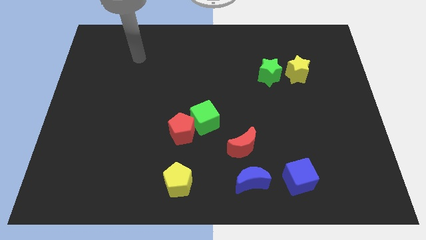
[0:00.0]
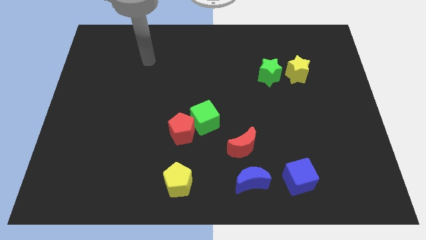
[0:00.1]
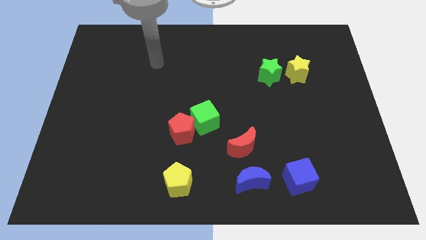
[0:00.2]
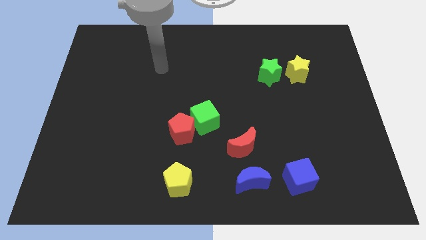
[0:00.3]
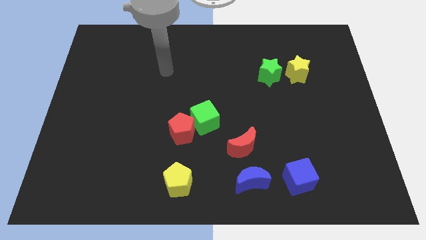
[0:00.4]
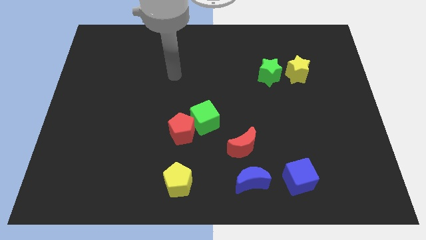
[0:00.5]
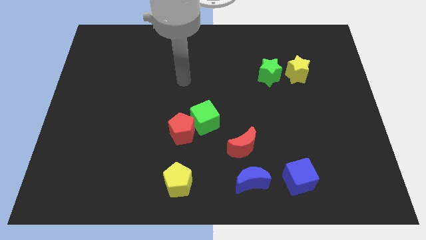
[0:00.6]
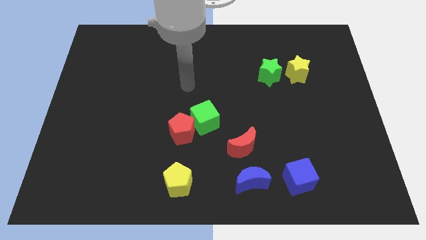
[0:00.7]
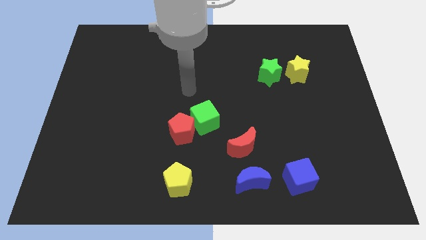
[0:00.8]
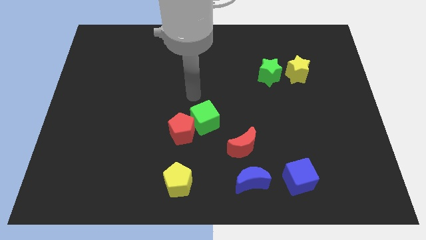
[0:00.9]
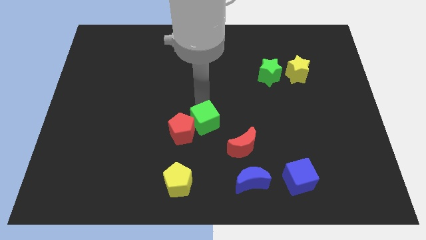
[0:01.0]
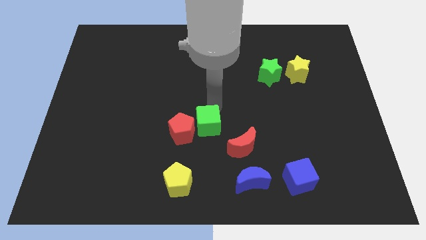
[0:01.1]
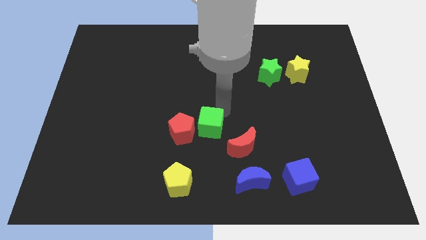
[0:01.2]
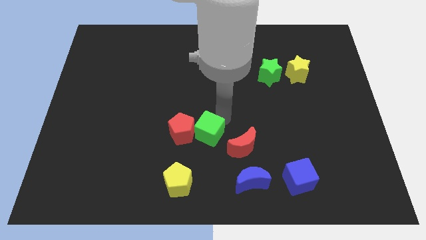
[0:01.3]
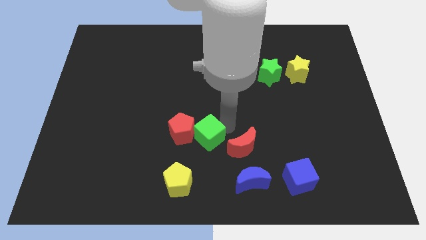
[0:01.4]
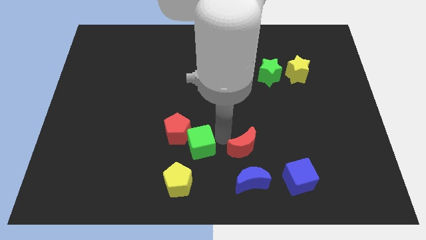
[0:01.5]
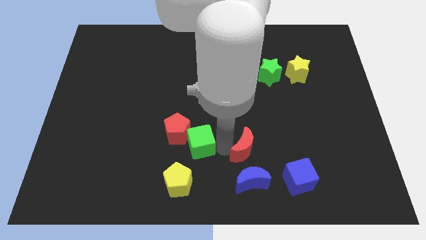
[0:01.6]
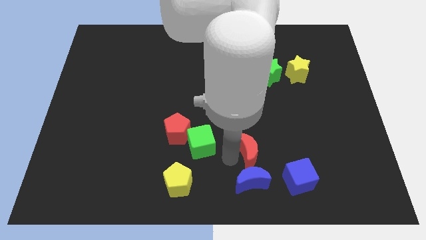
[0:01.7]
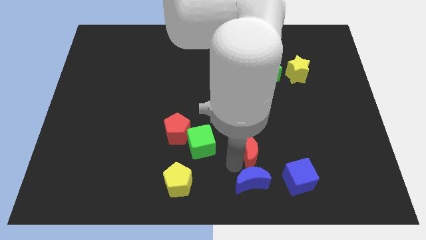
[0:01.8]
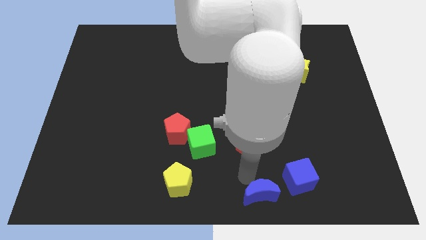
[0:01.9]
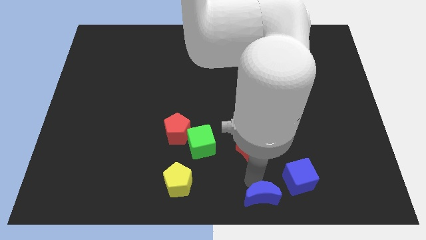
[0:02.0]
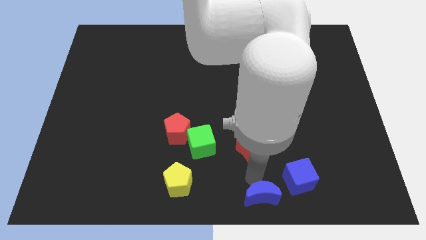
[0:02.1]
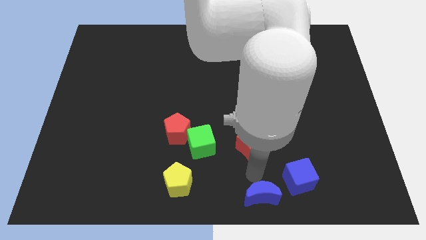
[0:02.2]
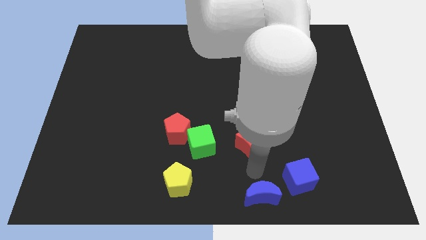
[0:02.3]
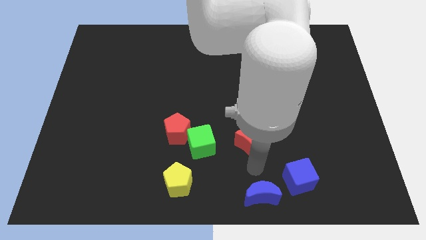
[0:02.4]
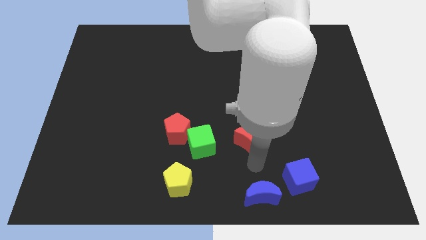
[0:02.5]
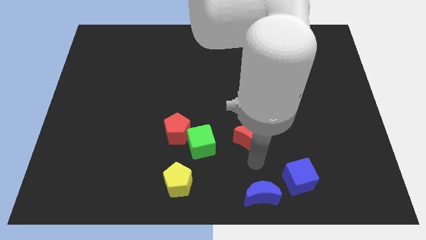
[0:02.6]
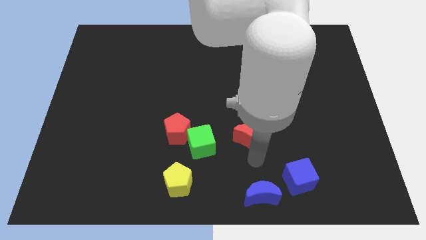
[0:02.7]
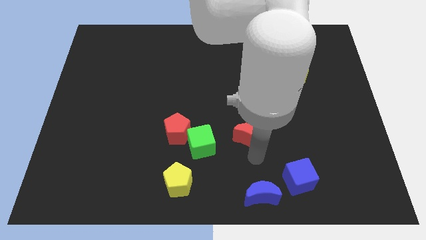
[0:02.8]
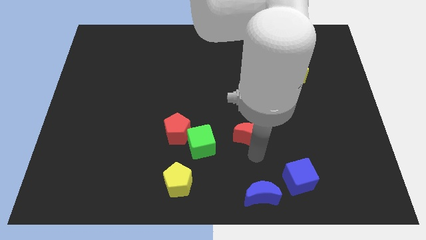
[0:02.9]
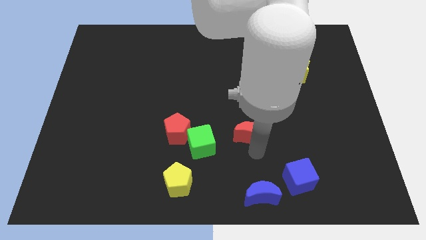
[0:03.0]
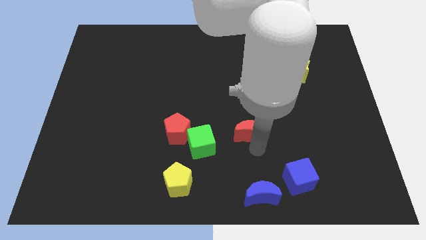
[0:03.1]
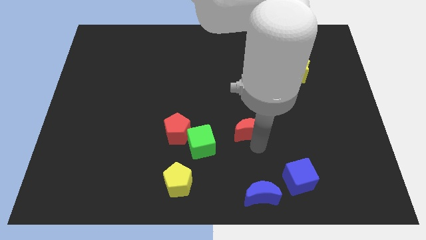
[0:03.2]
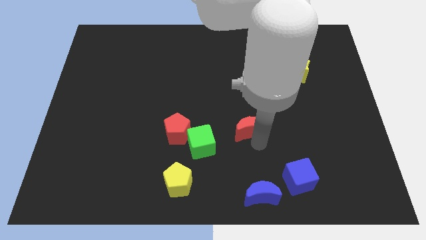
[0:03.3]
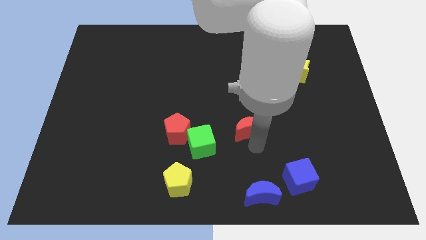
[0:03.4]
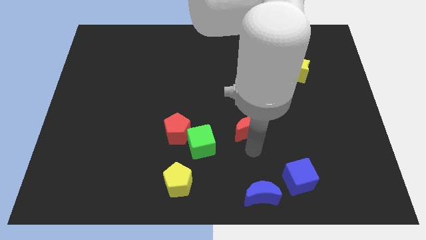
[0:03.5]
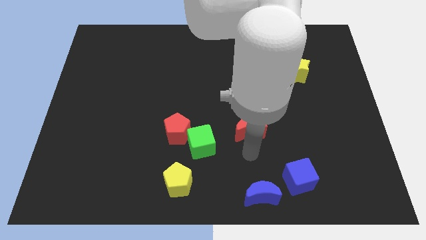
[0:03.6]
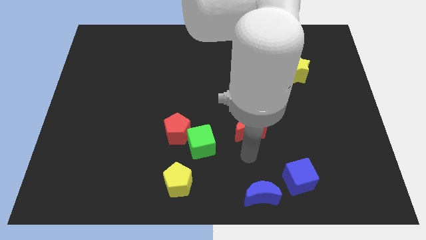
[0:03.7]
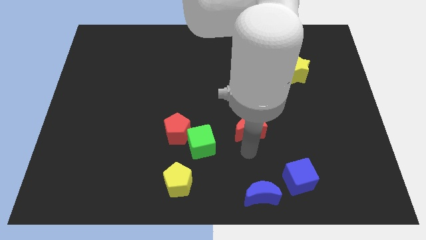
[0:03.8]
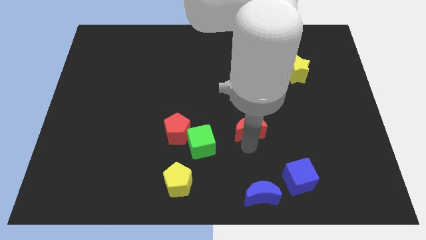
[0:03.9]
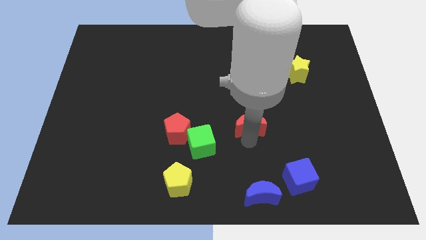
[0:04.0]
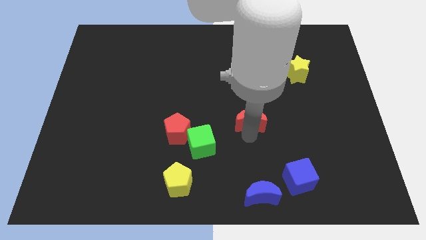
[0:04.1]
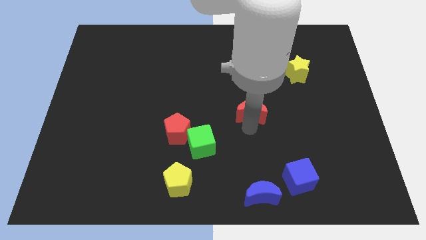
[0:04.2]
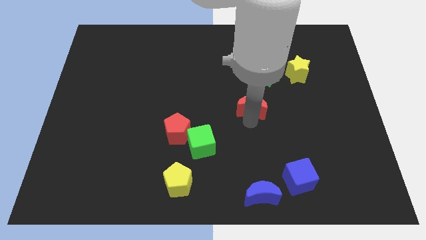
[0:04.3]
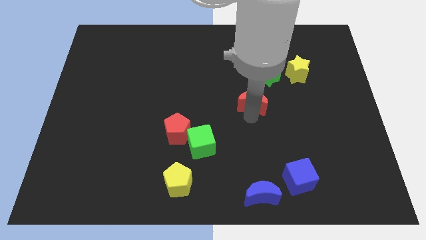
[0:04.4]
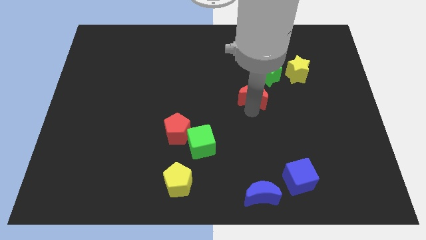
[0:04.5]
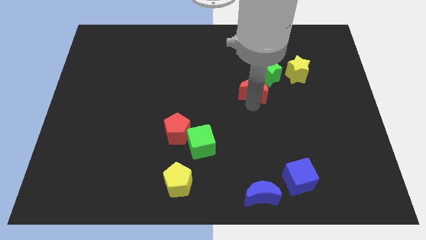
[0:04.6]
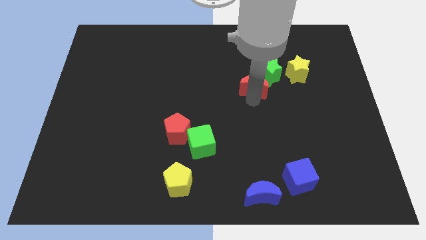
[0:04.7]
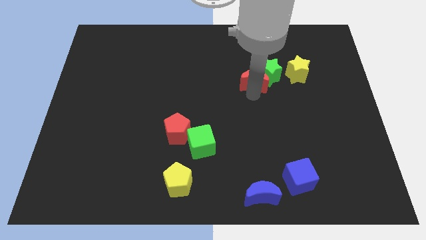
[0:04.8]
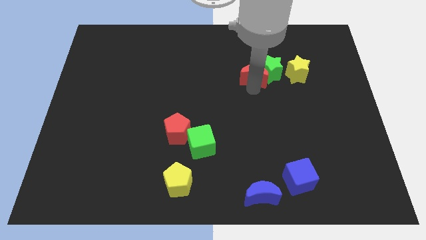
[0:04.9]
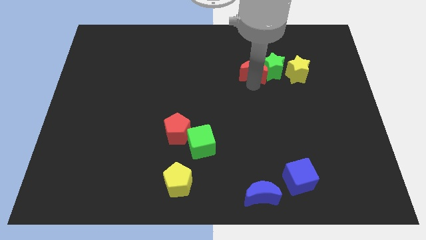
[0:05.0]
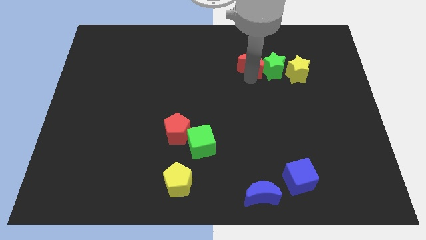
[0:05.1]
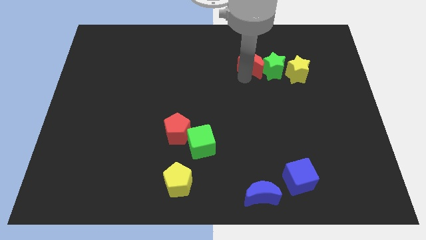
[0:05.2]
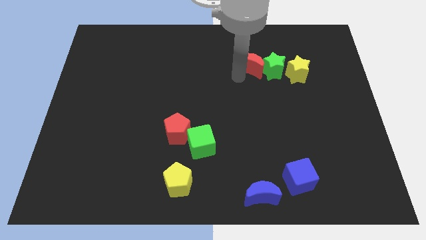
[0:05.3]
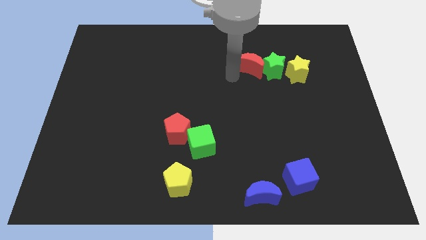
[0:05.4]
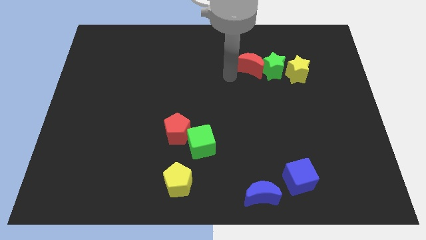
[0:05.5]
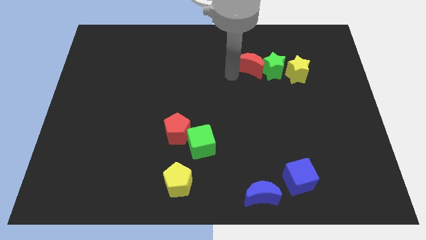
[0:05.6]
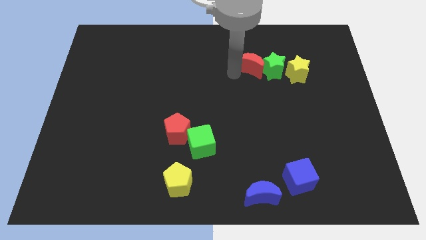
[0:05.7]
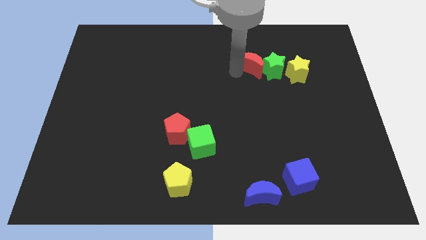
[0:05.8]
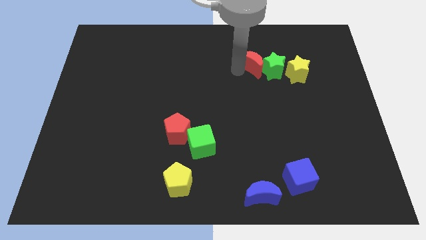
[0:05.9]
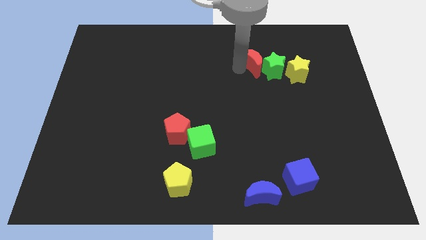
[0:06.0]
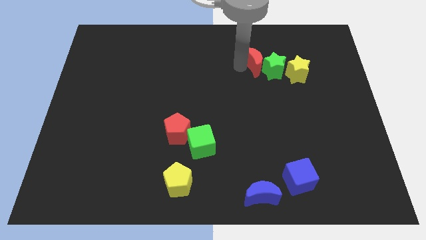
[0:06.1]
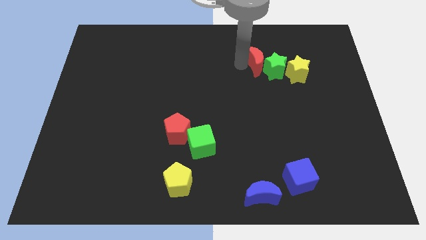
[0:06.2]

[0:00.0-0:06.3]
move the red moon diagonally up and to the left of the yellow star

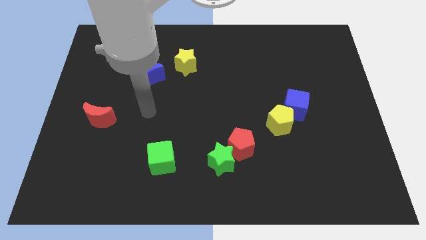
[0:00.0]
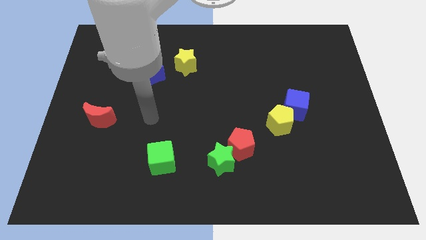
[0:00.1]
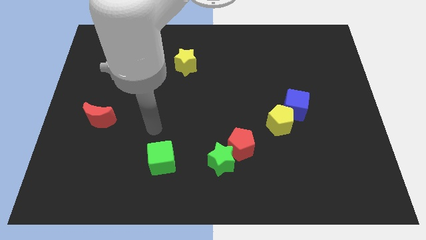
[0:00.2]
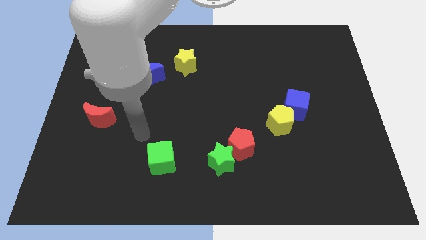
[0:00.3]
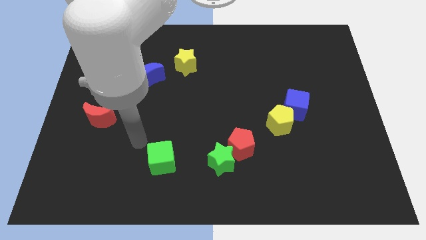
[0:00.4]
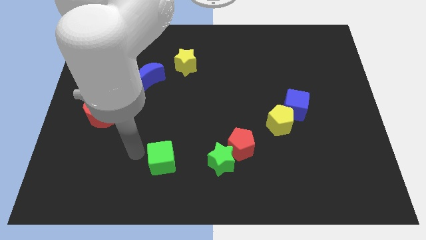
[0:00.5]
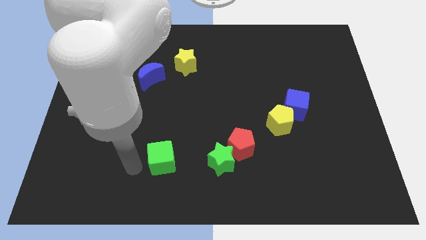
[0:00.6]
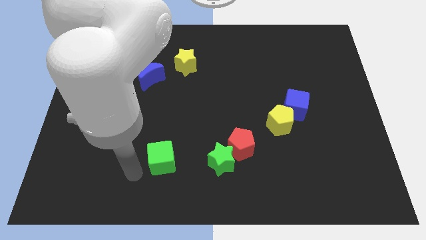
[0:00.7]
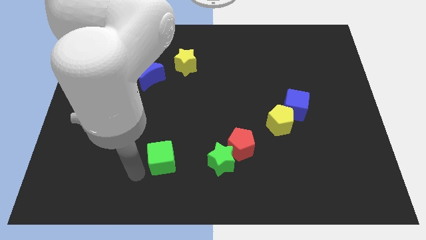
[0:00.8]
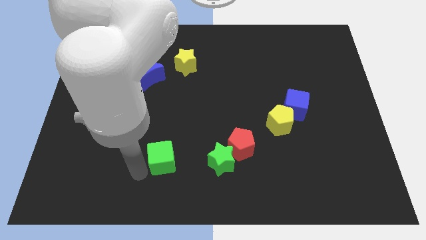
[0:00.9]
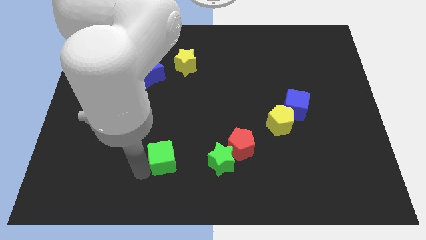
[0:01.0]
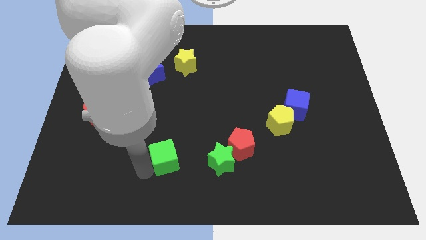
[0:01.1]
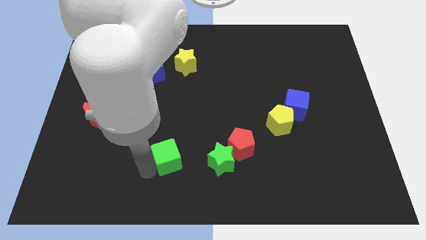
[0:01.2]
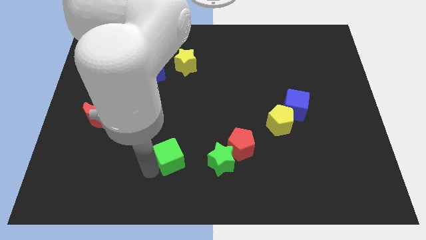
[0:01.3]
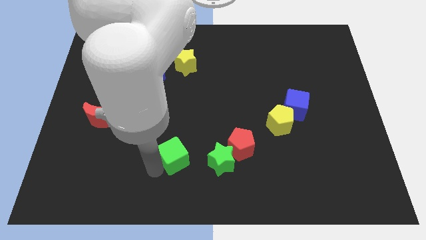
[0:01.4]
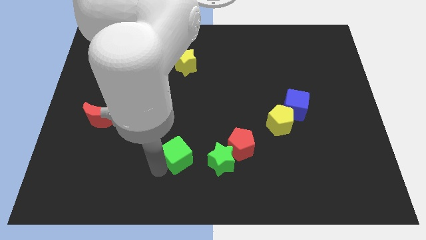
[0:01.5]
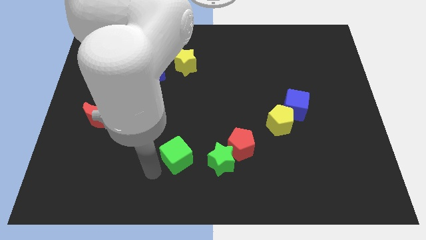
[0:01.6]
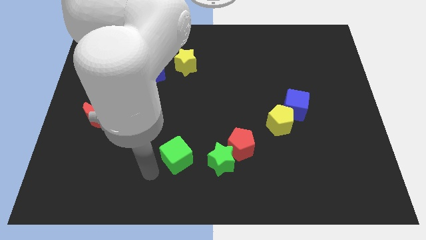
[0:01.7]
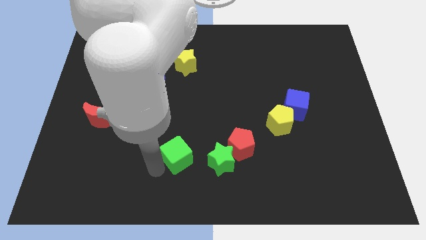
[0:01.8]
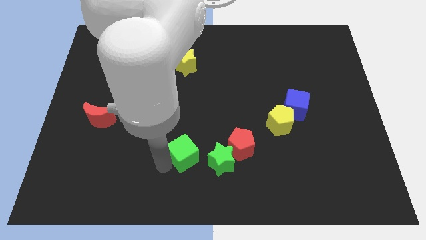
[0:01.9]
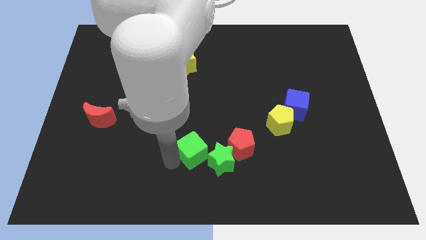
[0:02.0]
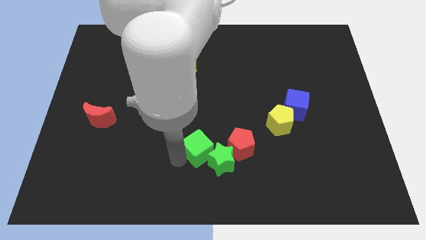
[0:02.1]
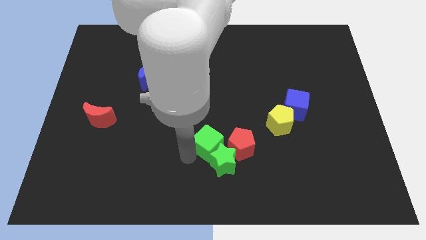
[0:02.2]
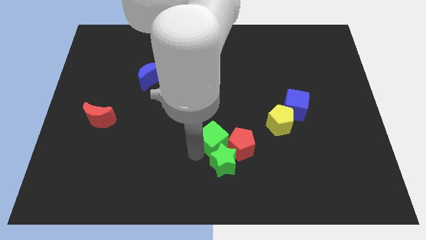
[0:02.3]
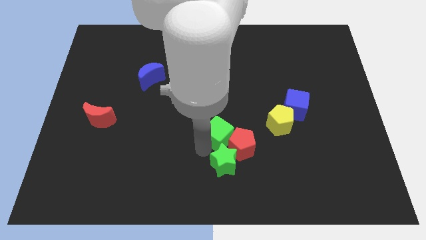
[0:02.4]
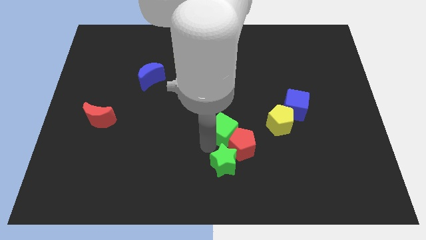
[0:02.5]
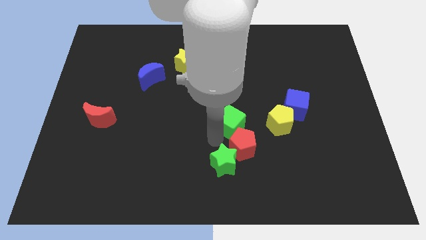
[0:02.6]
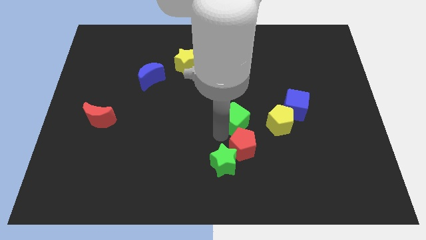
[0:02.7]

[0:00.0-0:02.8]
put the green cube to the left of the blue cube
